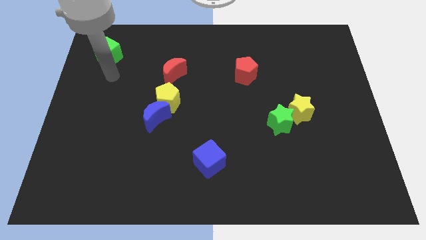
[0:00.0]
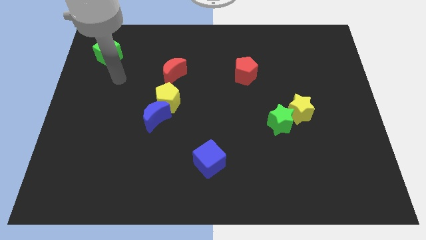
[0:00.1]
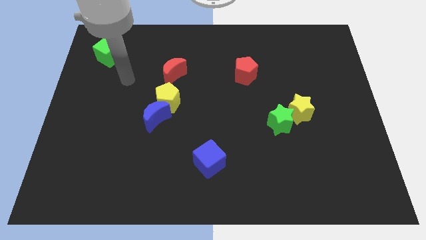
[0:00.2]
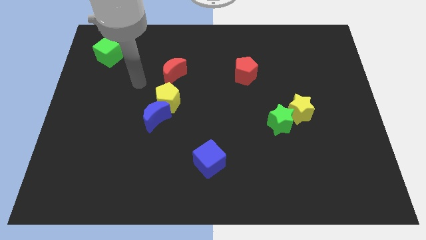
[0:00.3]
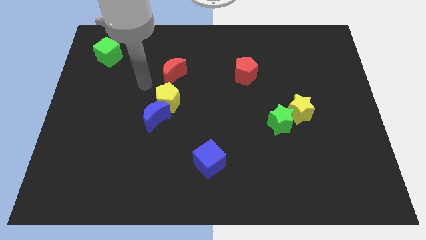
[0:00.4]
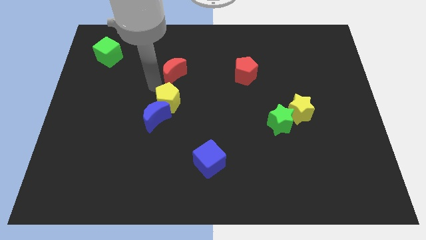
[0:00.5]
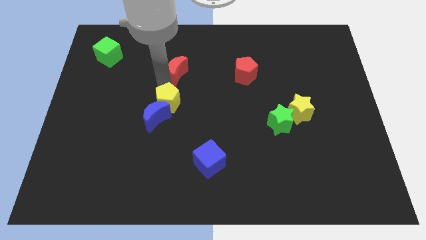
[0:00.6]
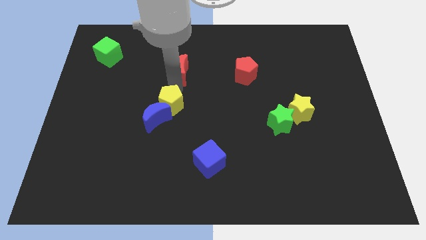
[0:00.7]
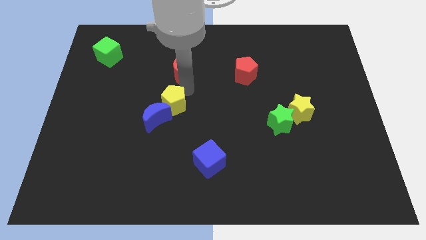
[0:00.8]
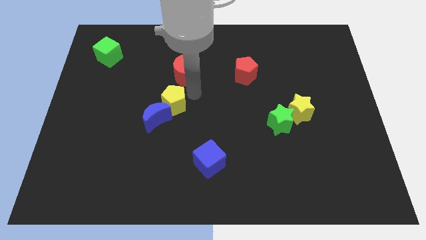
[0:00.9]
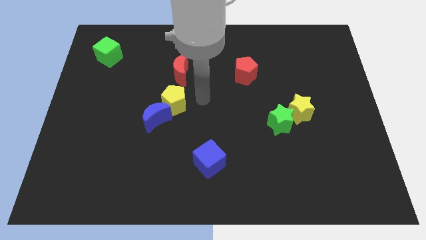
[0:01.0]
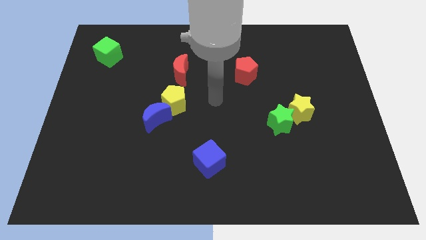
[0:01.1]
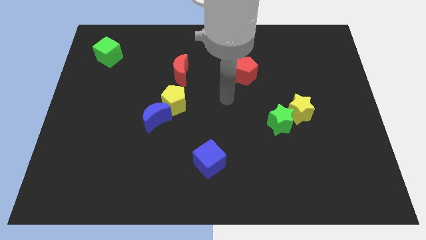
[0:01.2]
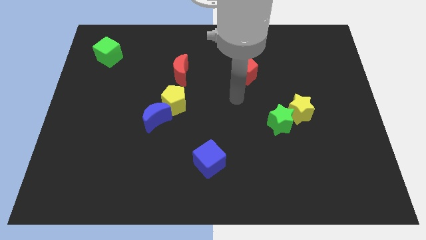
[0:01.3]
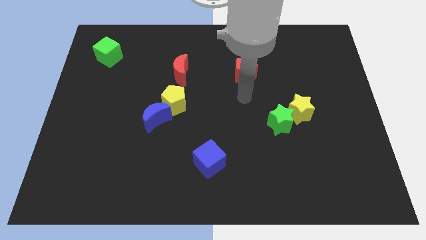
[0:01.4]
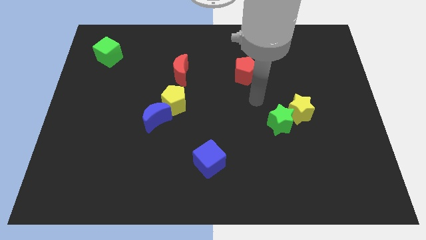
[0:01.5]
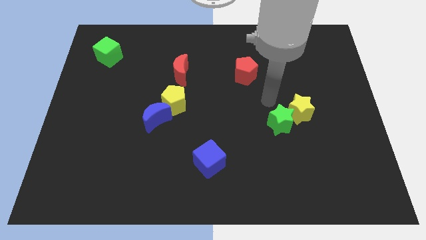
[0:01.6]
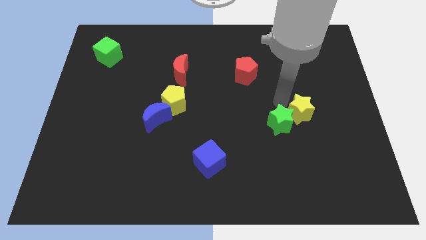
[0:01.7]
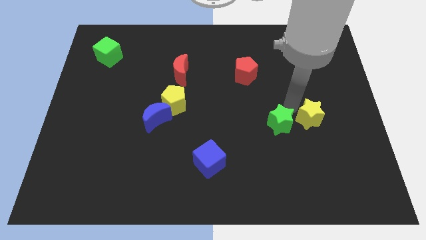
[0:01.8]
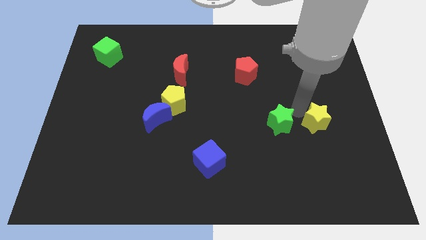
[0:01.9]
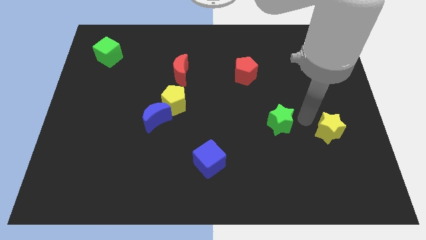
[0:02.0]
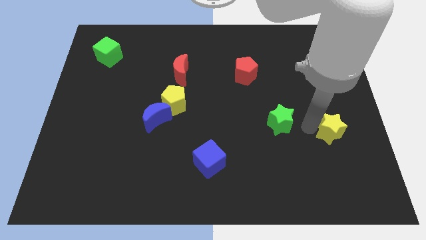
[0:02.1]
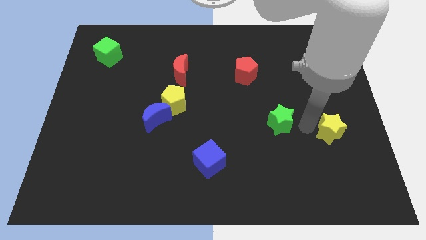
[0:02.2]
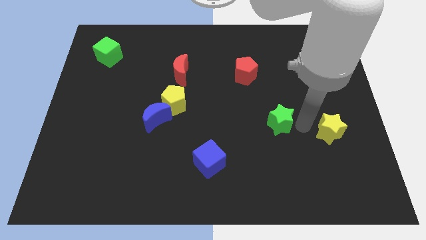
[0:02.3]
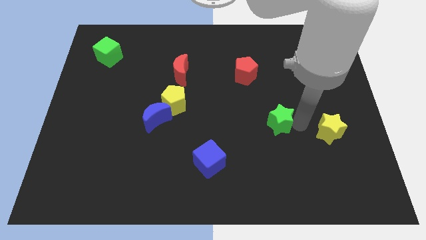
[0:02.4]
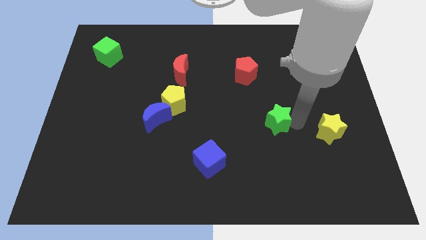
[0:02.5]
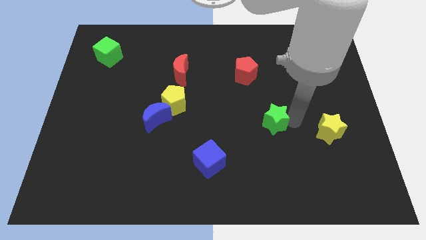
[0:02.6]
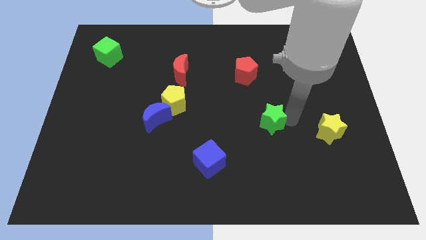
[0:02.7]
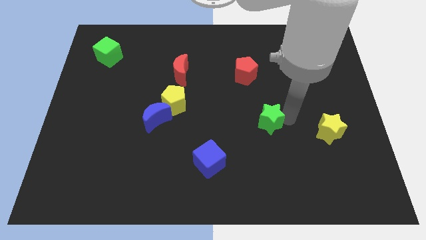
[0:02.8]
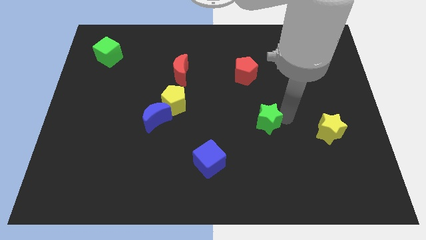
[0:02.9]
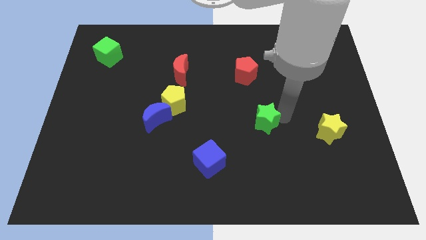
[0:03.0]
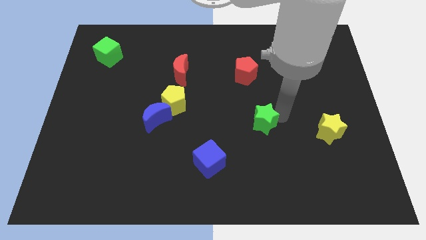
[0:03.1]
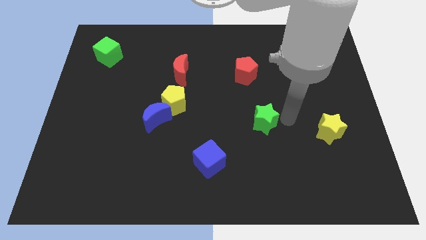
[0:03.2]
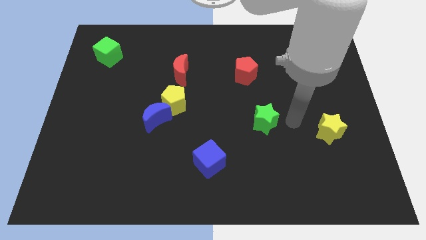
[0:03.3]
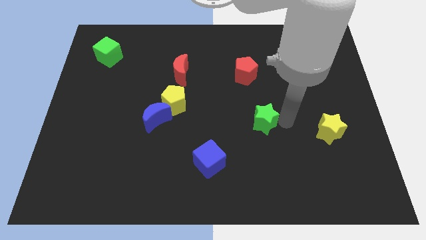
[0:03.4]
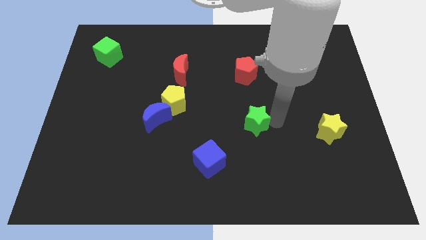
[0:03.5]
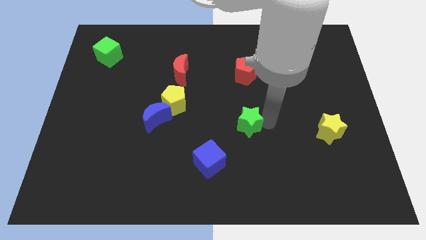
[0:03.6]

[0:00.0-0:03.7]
slightly slide the green star to the left

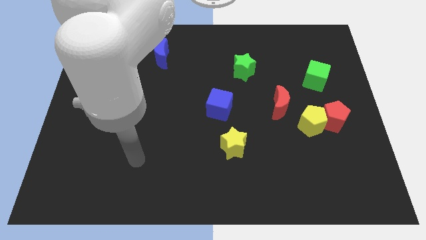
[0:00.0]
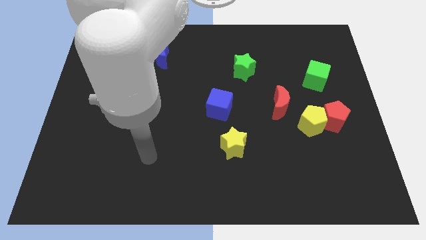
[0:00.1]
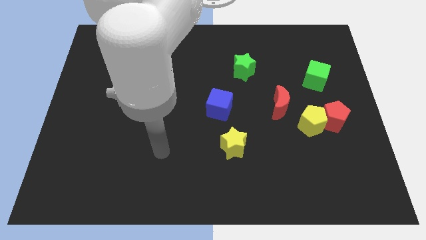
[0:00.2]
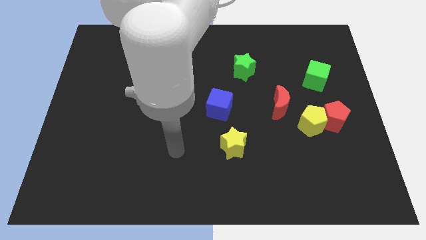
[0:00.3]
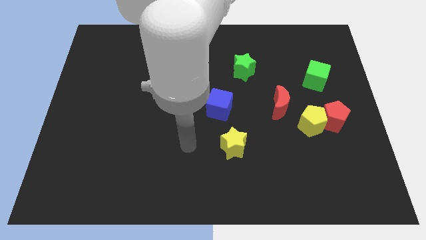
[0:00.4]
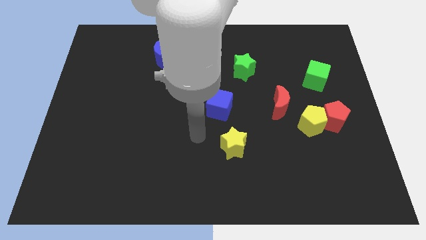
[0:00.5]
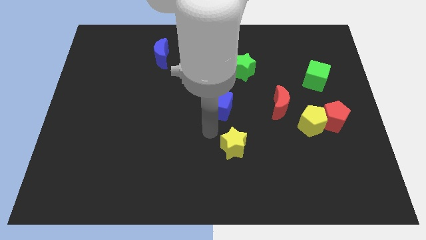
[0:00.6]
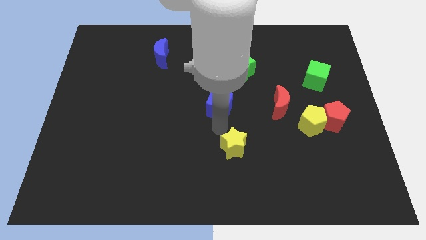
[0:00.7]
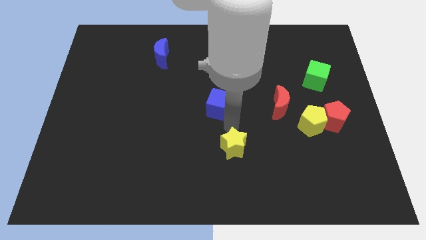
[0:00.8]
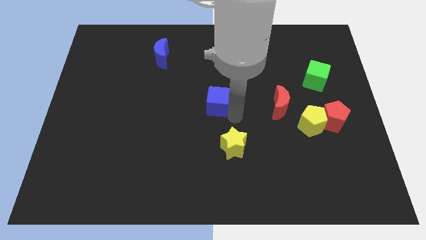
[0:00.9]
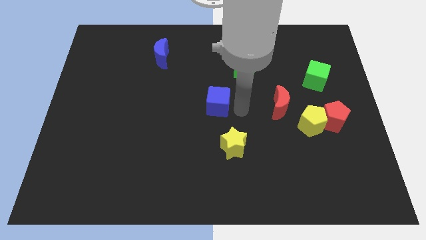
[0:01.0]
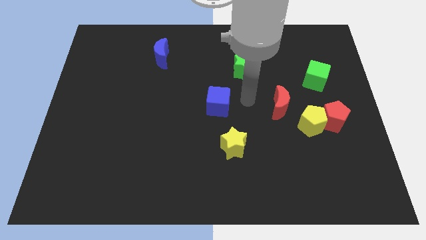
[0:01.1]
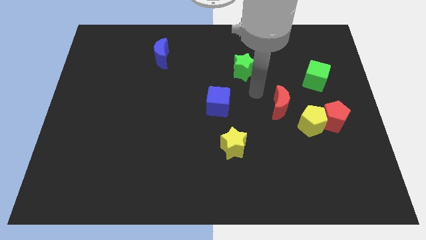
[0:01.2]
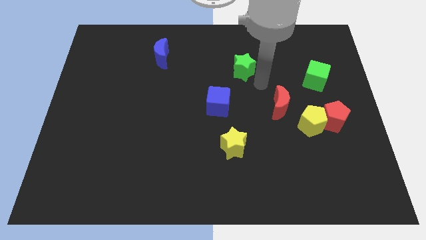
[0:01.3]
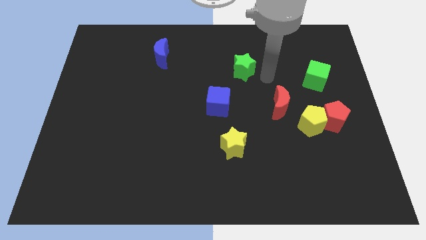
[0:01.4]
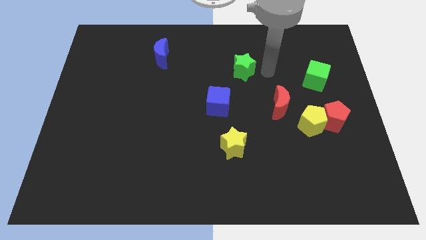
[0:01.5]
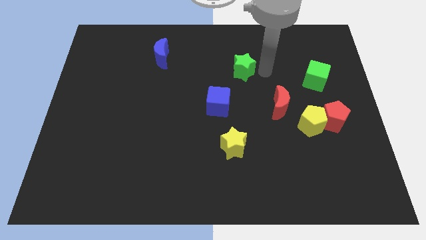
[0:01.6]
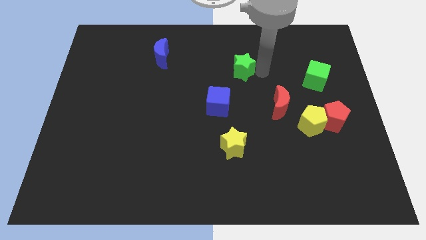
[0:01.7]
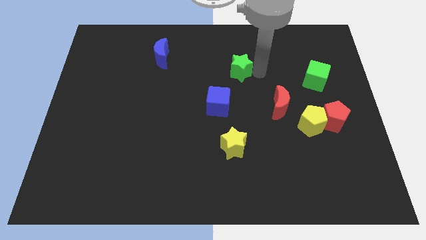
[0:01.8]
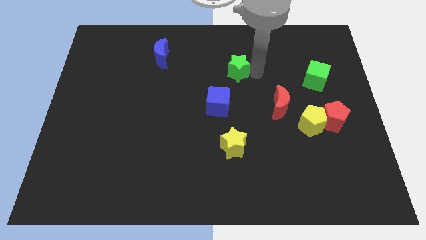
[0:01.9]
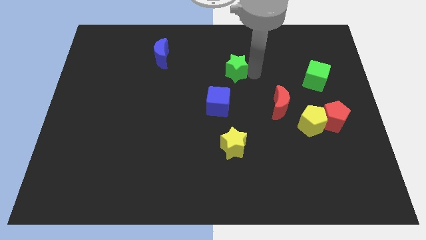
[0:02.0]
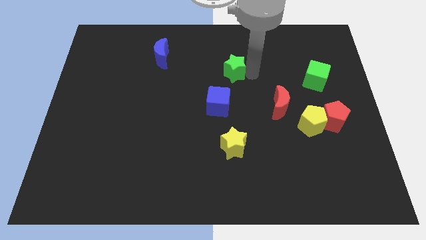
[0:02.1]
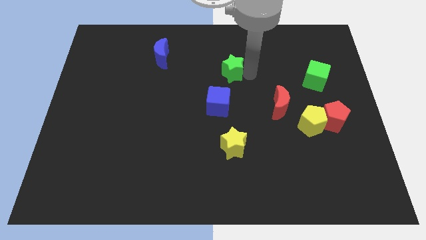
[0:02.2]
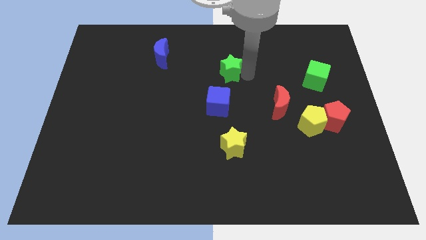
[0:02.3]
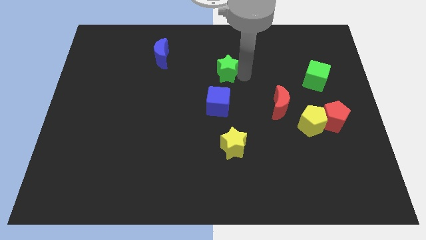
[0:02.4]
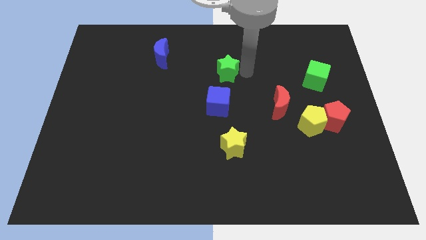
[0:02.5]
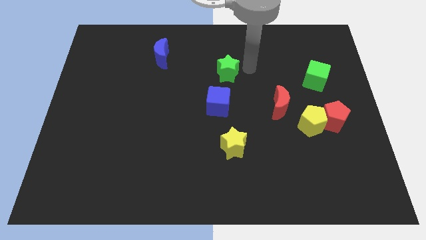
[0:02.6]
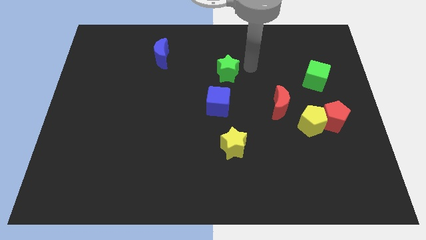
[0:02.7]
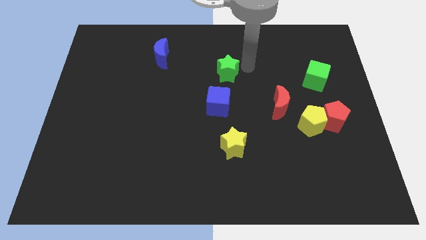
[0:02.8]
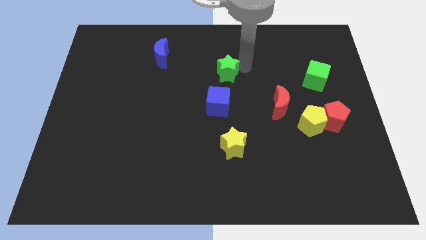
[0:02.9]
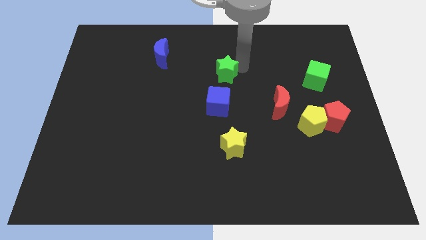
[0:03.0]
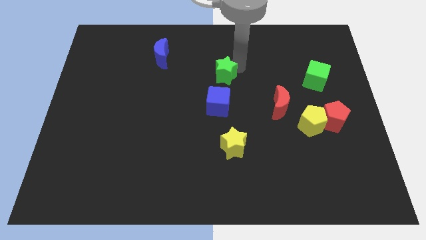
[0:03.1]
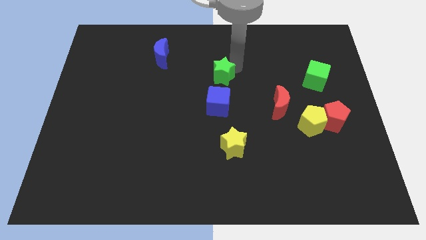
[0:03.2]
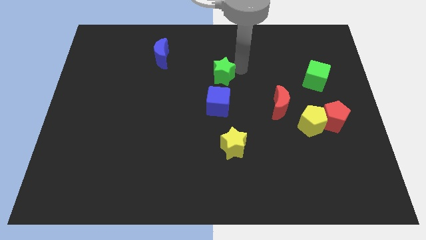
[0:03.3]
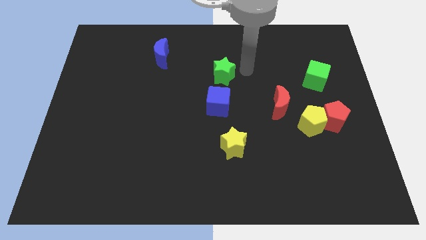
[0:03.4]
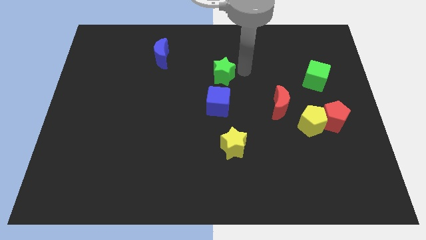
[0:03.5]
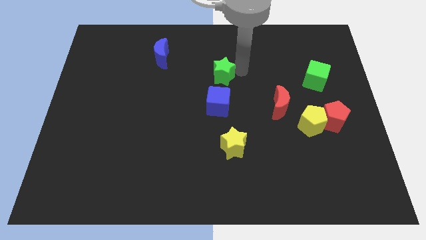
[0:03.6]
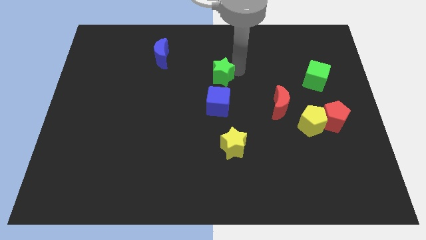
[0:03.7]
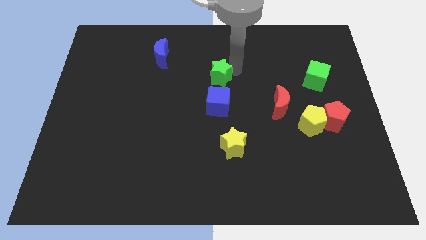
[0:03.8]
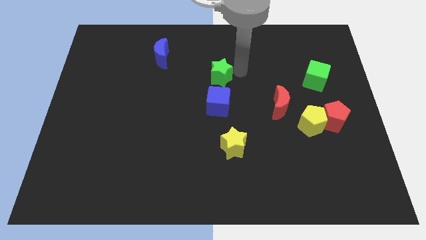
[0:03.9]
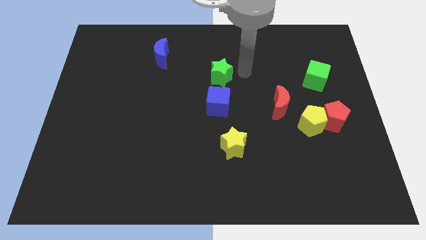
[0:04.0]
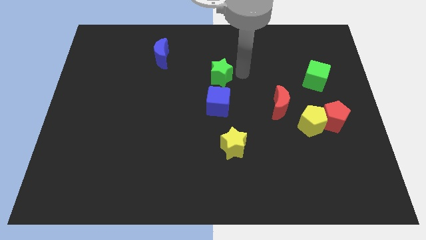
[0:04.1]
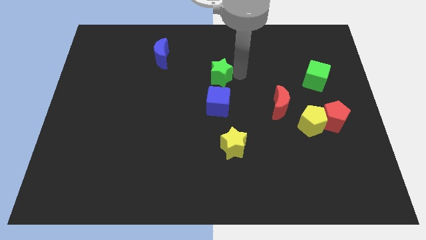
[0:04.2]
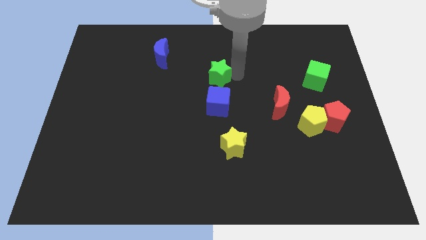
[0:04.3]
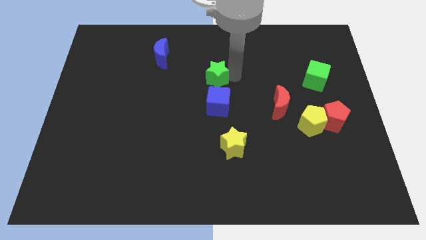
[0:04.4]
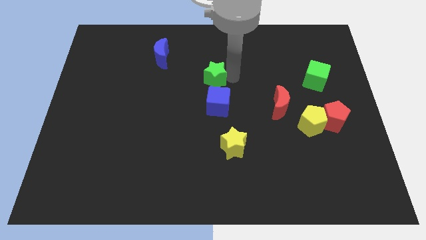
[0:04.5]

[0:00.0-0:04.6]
slightly slide the green star left

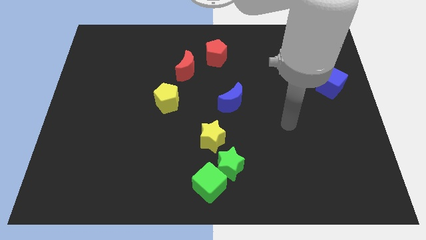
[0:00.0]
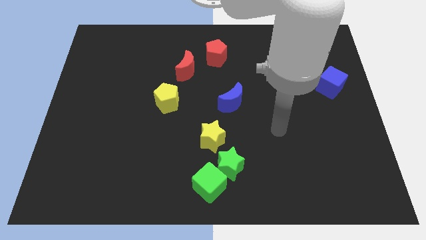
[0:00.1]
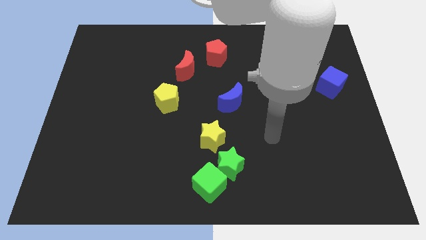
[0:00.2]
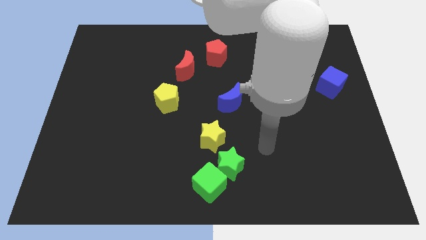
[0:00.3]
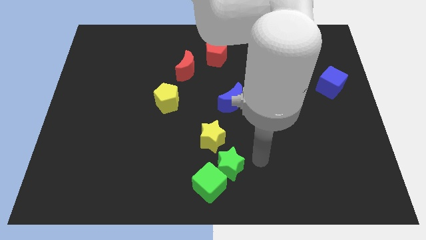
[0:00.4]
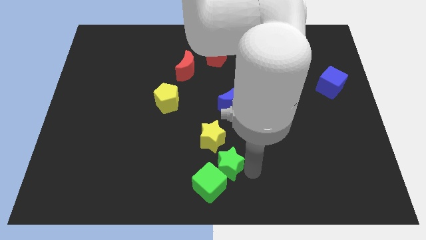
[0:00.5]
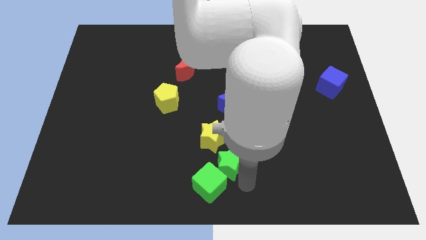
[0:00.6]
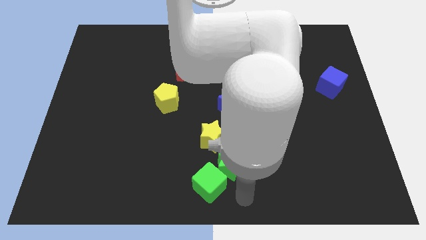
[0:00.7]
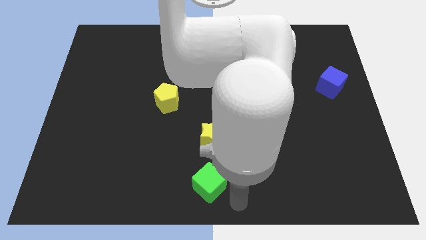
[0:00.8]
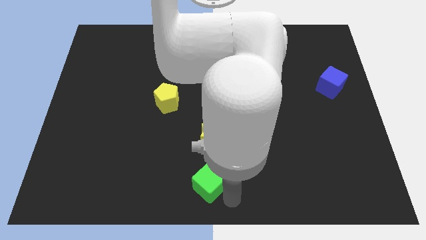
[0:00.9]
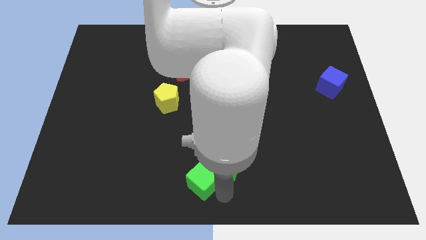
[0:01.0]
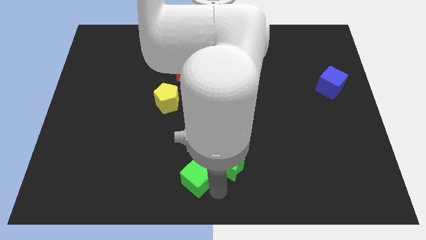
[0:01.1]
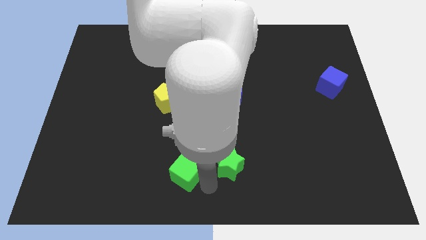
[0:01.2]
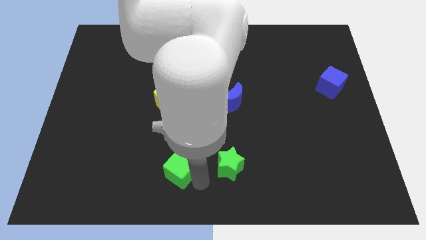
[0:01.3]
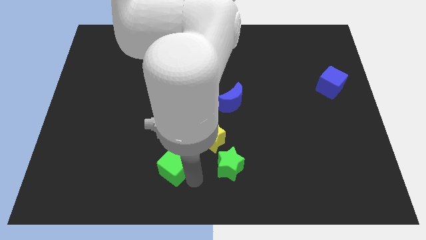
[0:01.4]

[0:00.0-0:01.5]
push the green cube diagonally upwards and to the left somewhat
